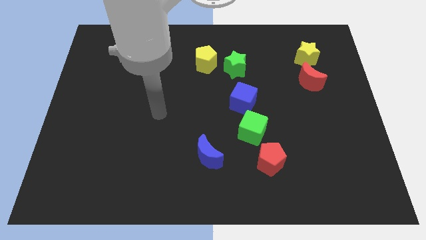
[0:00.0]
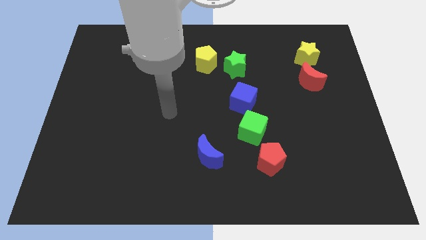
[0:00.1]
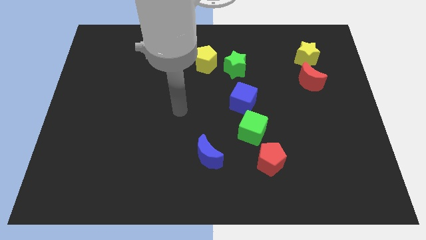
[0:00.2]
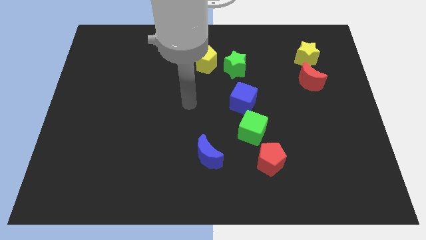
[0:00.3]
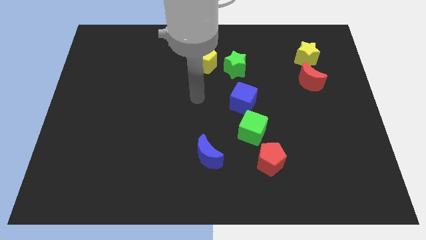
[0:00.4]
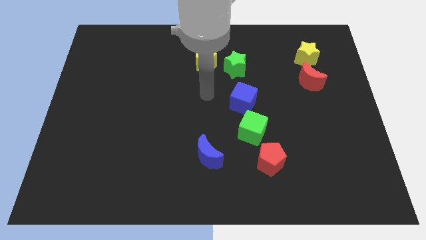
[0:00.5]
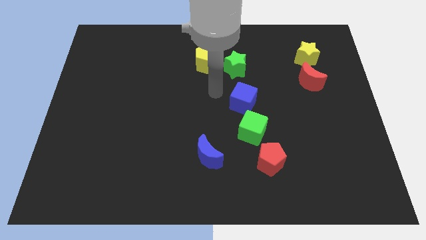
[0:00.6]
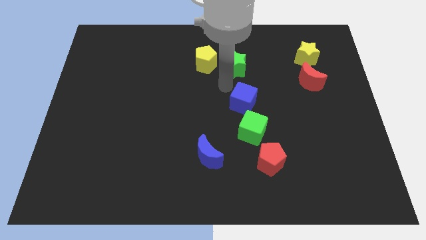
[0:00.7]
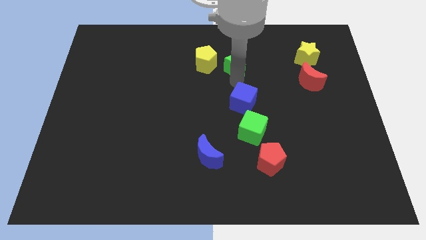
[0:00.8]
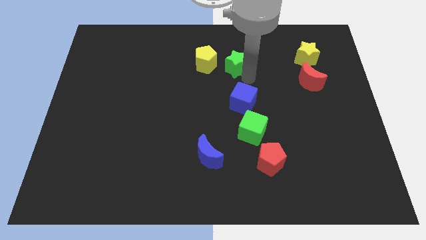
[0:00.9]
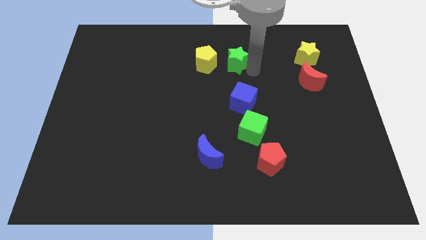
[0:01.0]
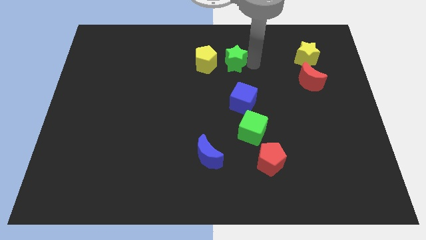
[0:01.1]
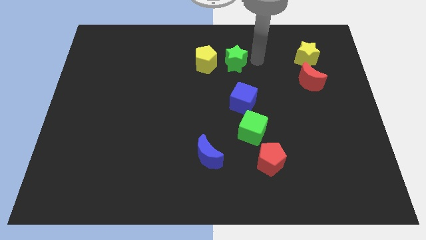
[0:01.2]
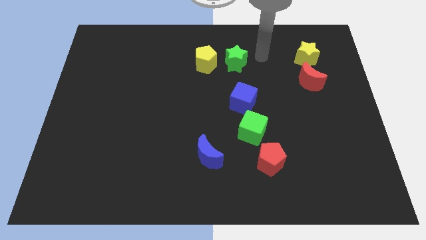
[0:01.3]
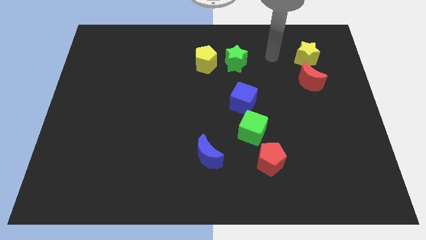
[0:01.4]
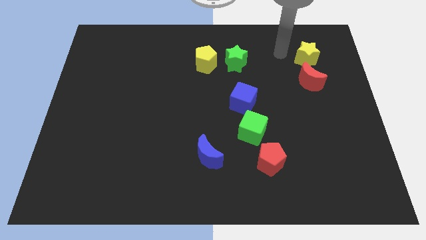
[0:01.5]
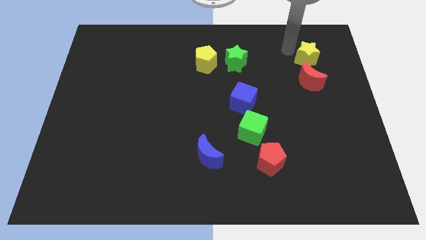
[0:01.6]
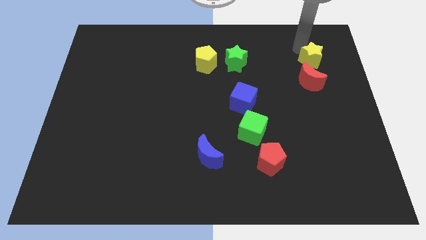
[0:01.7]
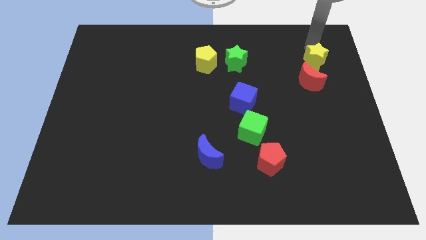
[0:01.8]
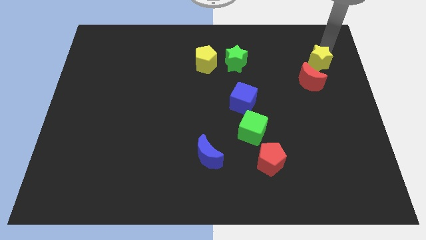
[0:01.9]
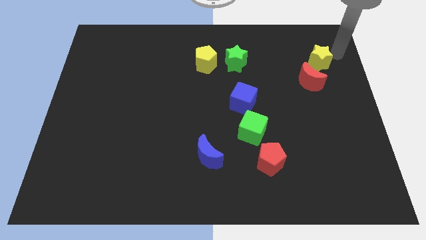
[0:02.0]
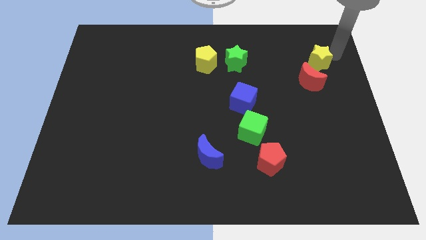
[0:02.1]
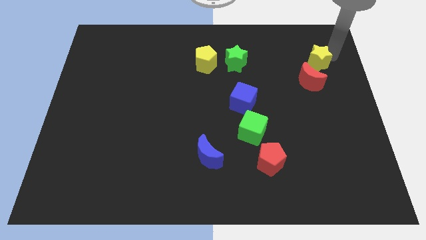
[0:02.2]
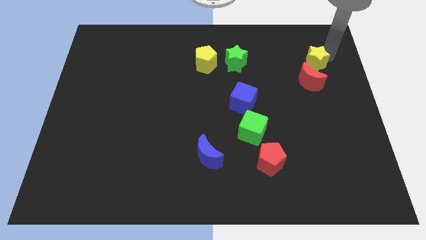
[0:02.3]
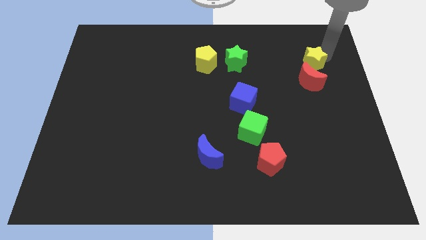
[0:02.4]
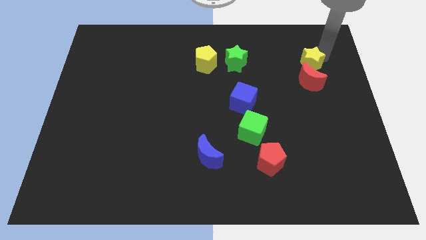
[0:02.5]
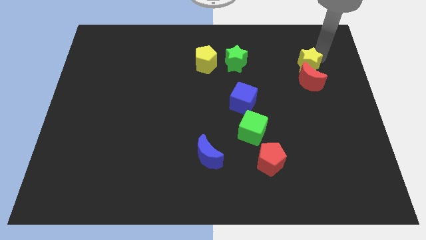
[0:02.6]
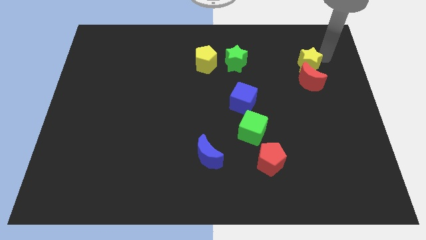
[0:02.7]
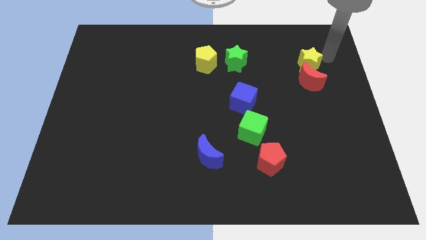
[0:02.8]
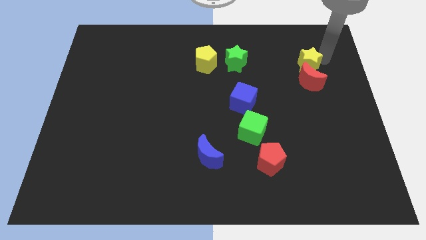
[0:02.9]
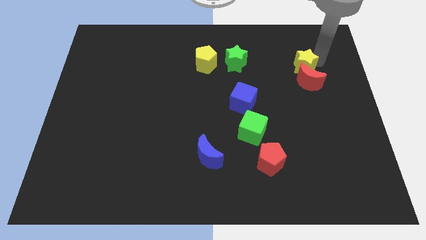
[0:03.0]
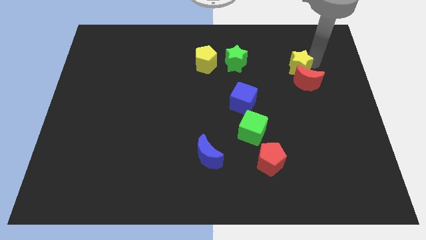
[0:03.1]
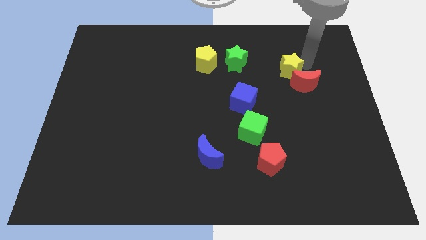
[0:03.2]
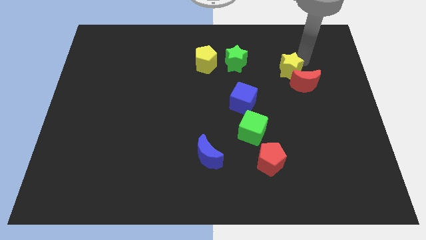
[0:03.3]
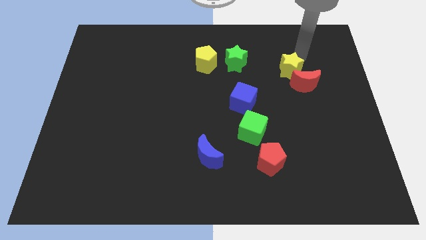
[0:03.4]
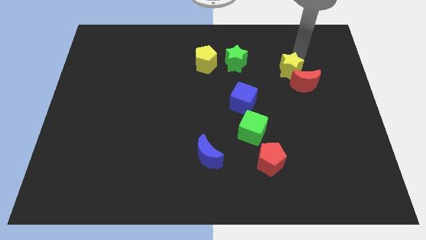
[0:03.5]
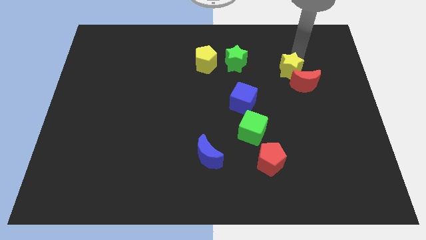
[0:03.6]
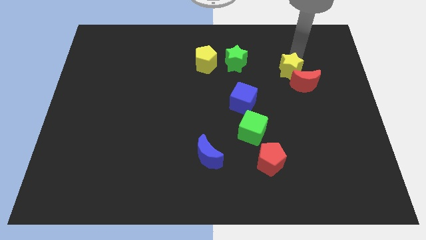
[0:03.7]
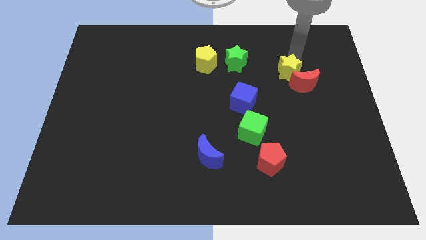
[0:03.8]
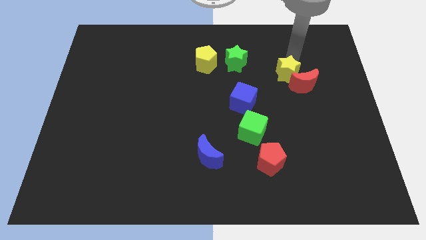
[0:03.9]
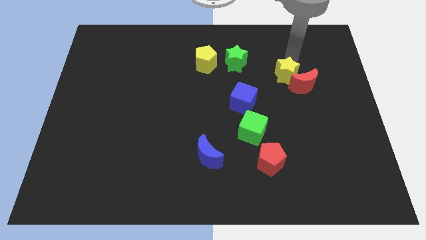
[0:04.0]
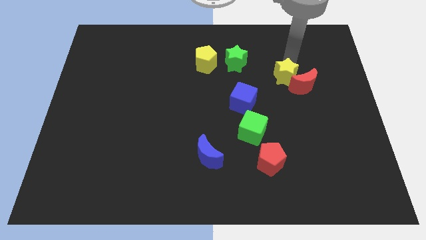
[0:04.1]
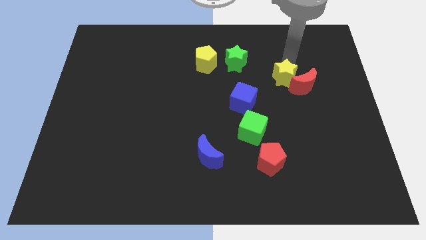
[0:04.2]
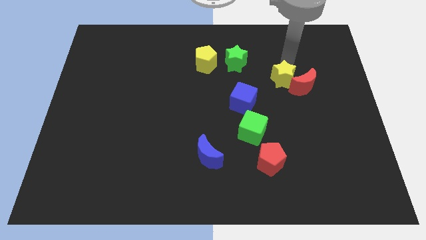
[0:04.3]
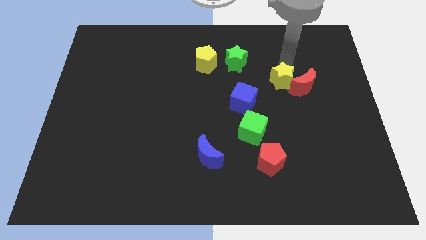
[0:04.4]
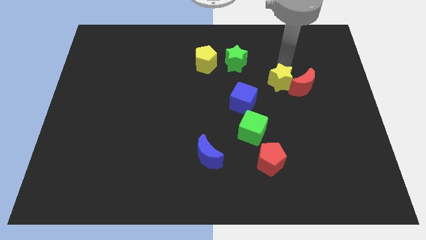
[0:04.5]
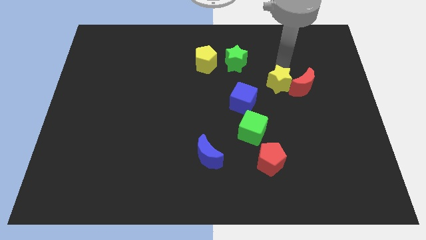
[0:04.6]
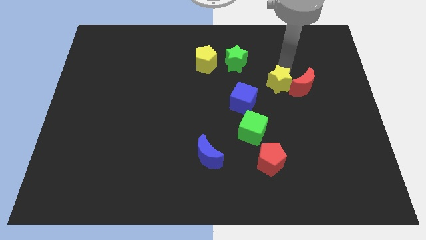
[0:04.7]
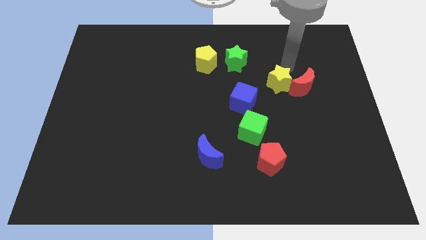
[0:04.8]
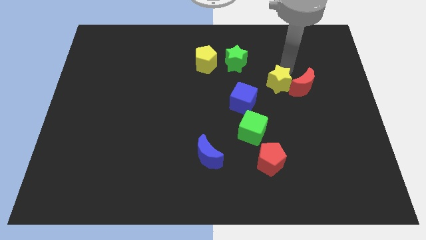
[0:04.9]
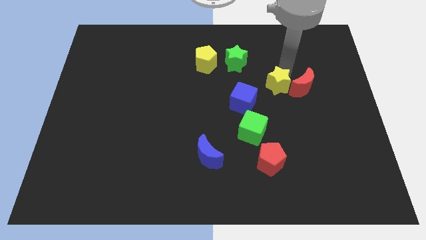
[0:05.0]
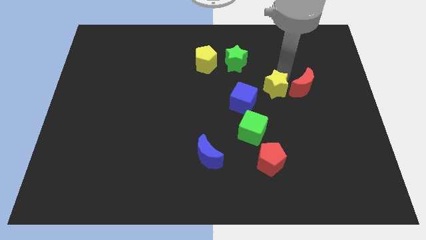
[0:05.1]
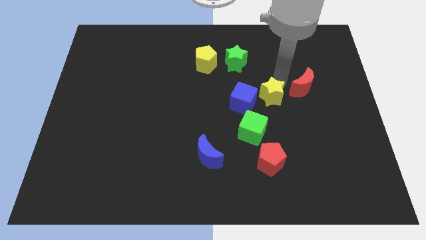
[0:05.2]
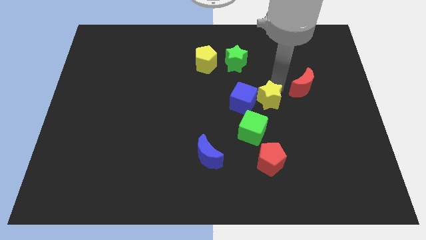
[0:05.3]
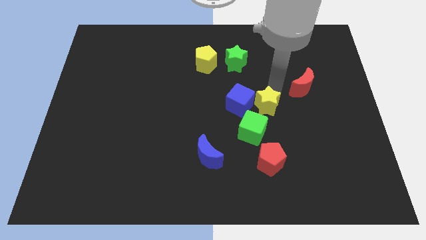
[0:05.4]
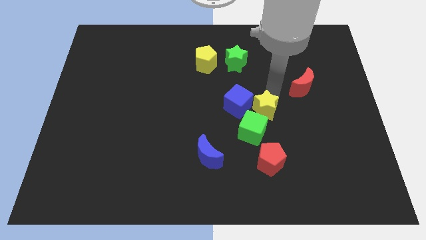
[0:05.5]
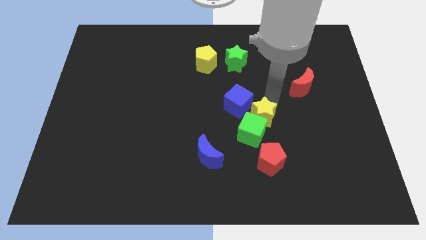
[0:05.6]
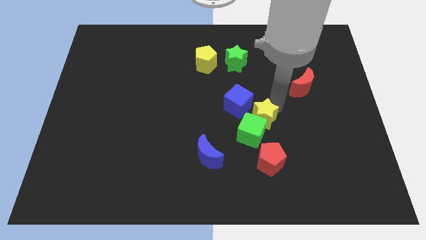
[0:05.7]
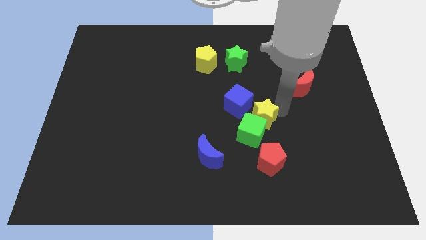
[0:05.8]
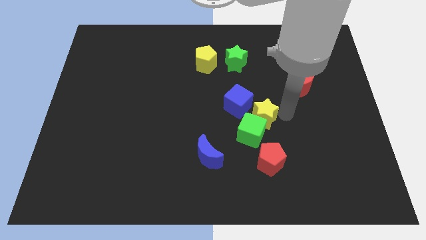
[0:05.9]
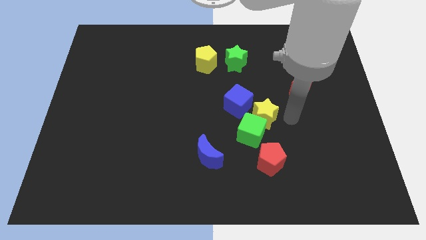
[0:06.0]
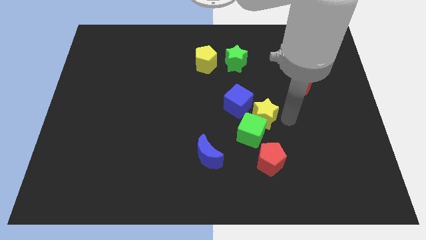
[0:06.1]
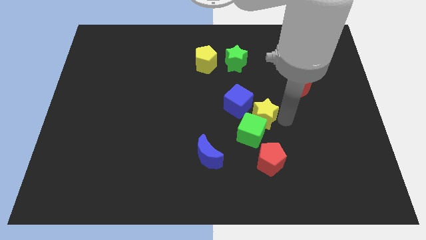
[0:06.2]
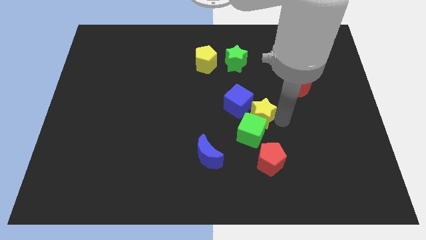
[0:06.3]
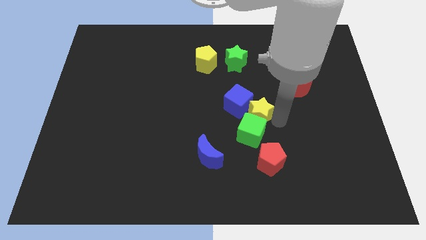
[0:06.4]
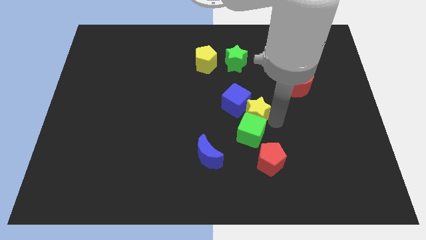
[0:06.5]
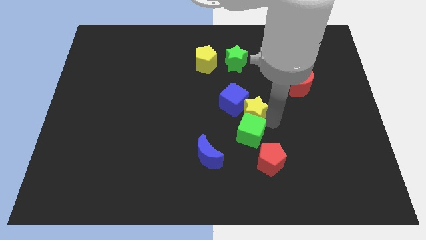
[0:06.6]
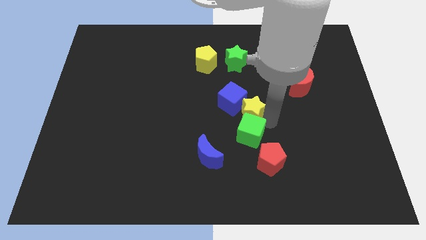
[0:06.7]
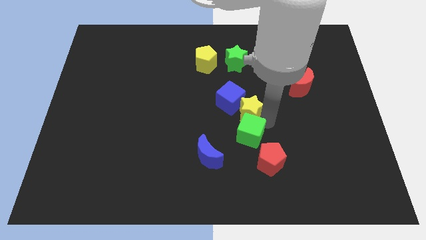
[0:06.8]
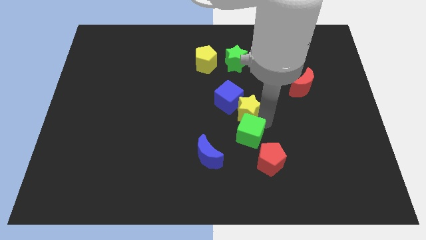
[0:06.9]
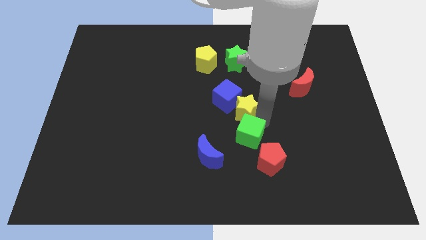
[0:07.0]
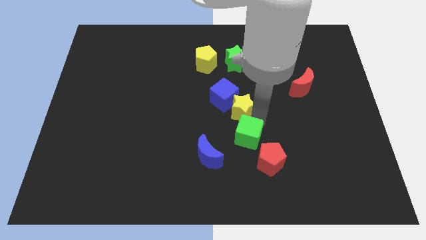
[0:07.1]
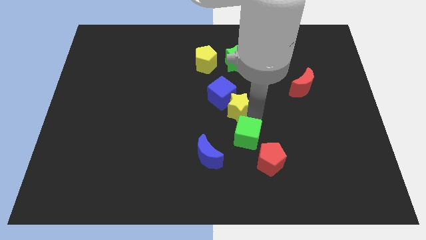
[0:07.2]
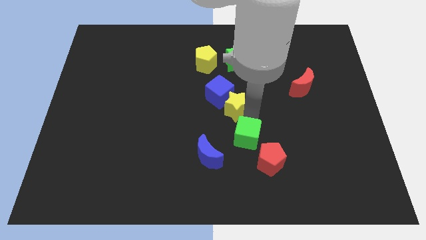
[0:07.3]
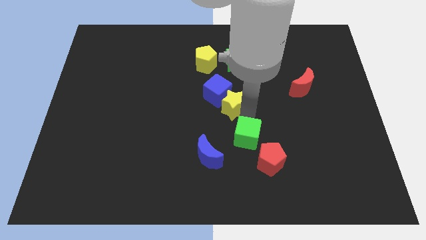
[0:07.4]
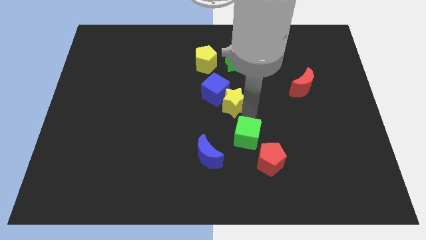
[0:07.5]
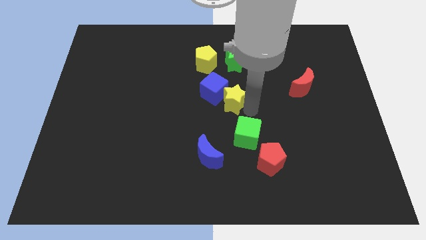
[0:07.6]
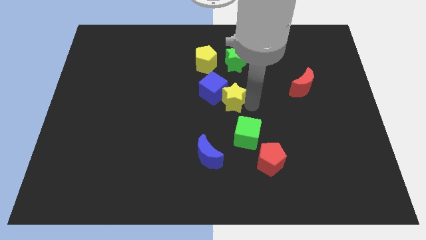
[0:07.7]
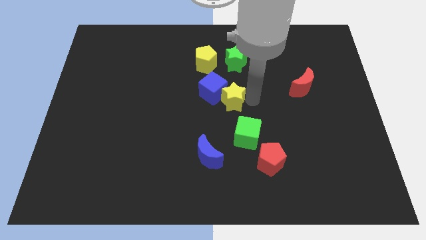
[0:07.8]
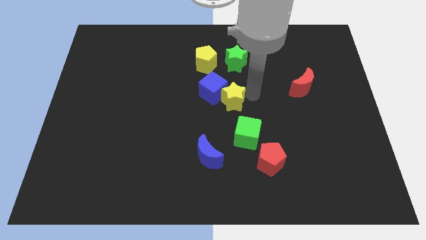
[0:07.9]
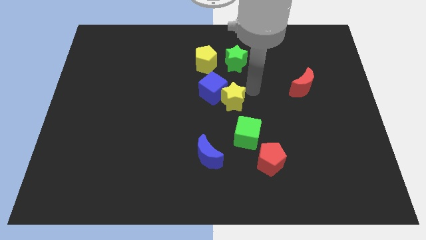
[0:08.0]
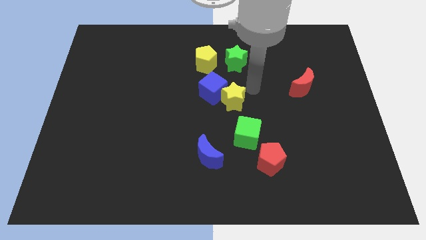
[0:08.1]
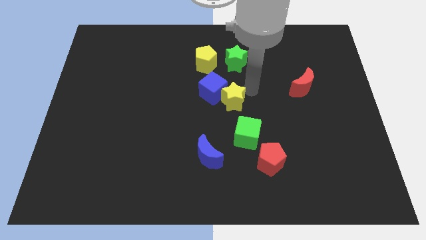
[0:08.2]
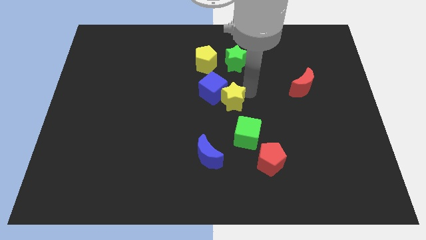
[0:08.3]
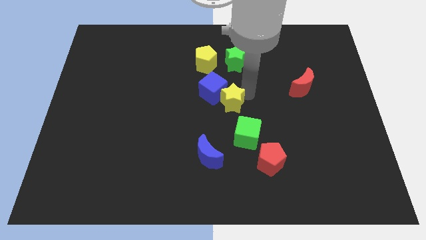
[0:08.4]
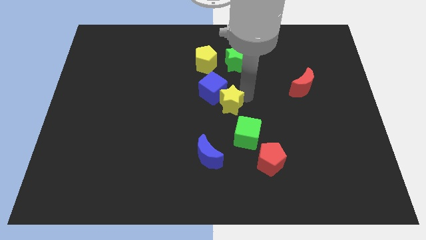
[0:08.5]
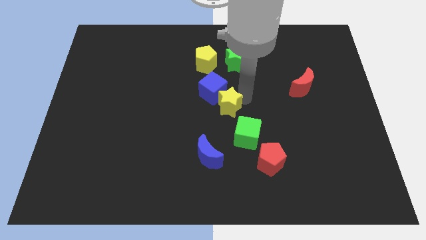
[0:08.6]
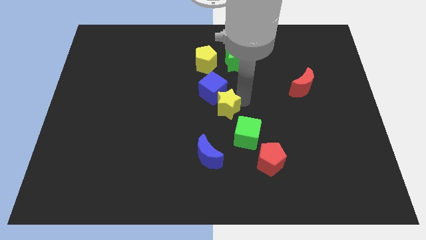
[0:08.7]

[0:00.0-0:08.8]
slide the yellow star to the top side of the blue moon
